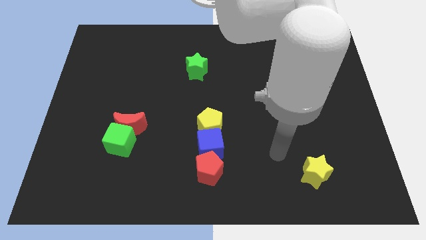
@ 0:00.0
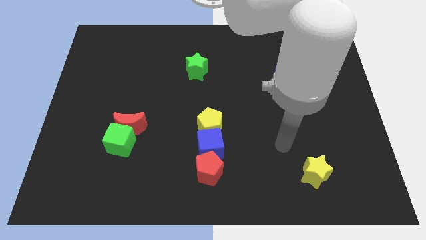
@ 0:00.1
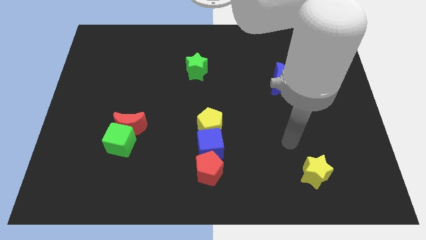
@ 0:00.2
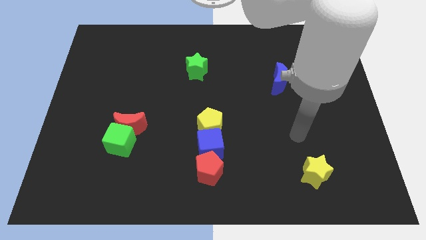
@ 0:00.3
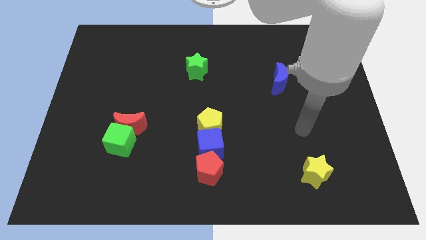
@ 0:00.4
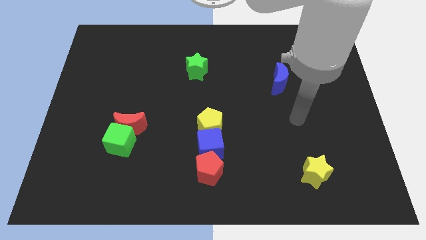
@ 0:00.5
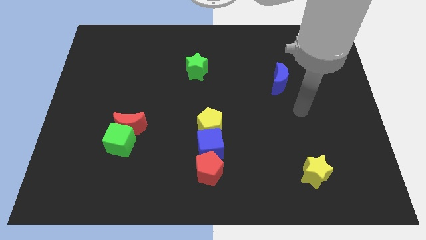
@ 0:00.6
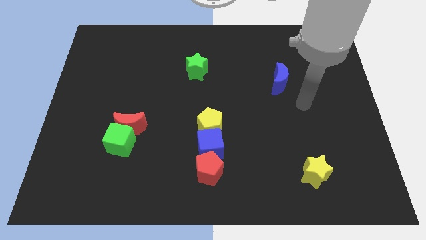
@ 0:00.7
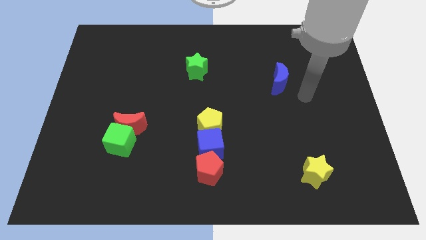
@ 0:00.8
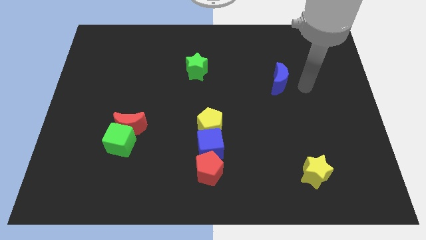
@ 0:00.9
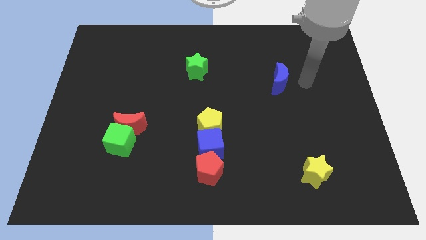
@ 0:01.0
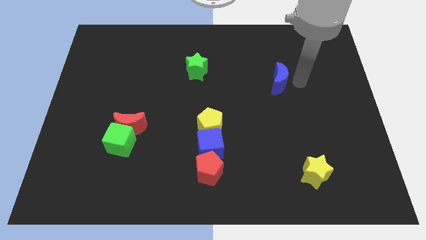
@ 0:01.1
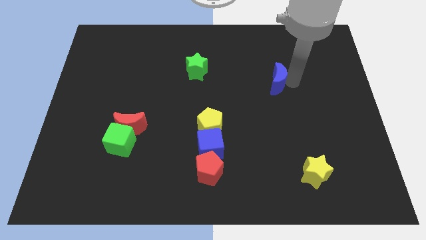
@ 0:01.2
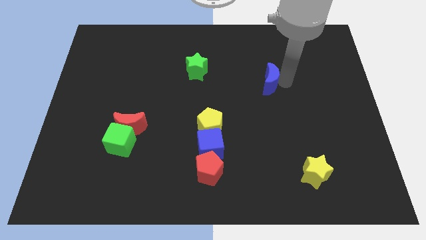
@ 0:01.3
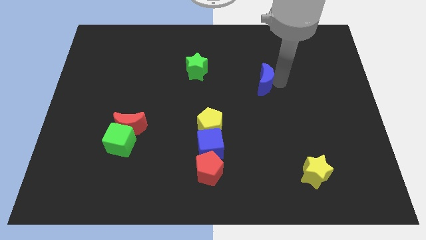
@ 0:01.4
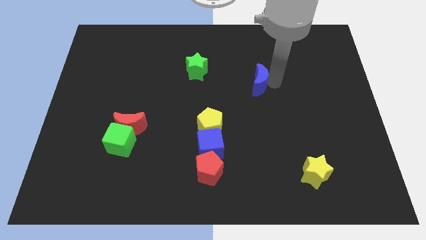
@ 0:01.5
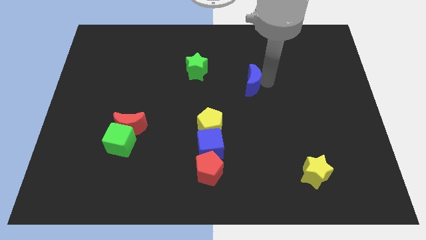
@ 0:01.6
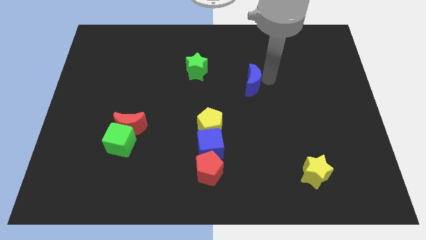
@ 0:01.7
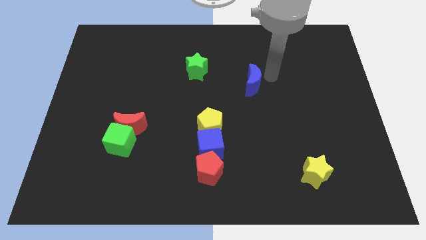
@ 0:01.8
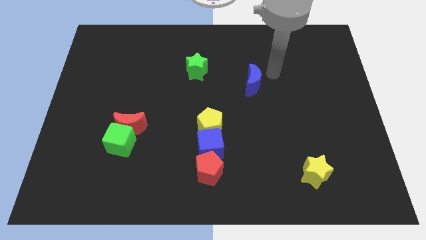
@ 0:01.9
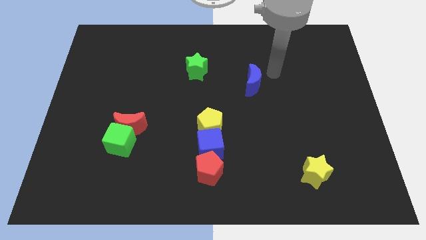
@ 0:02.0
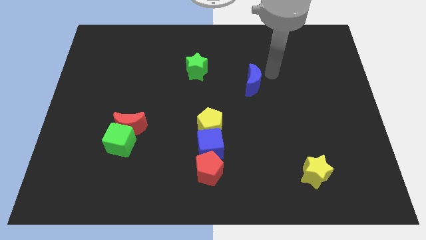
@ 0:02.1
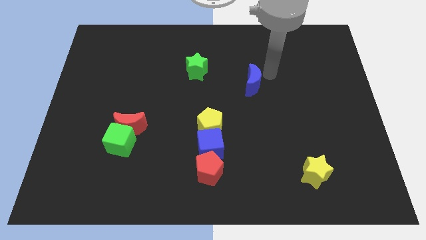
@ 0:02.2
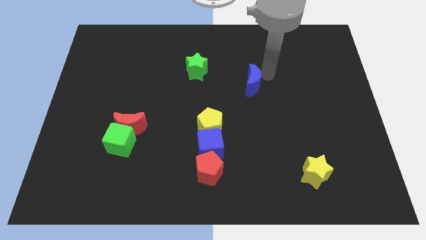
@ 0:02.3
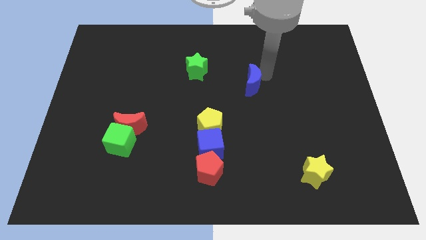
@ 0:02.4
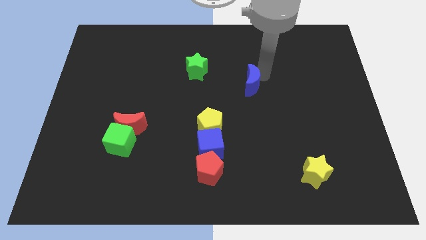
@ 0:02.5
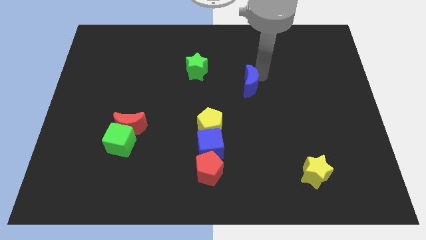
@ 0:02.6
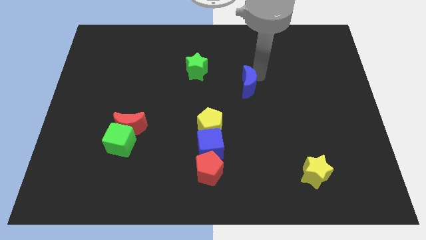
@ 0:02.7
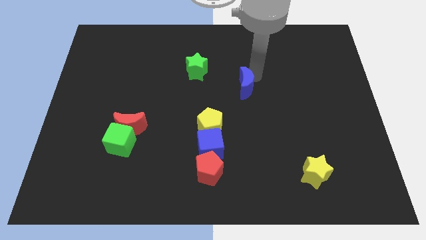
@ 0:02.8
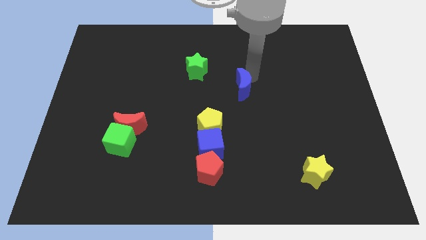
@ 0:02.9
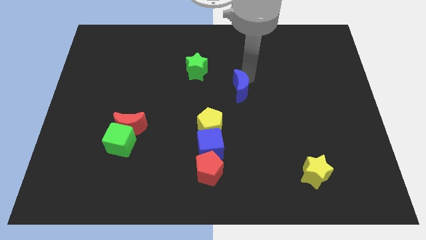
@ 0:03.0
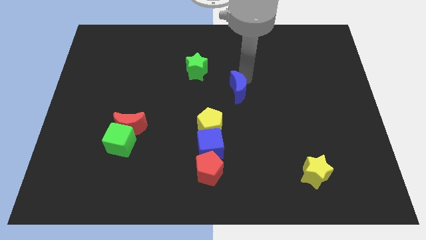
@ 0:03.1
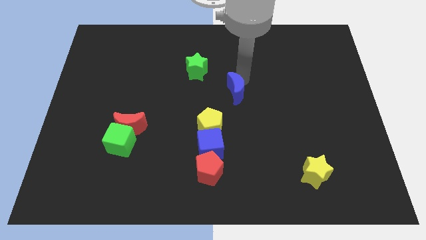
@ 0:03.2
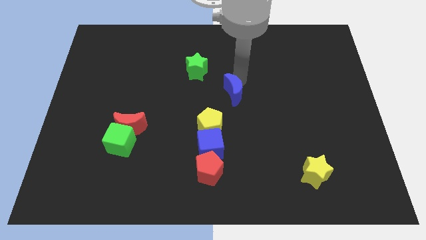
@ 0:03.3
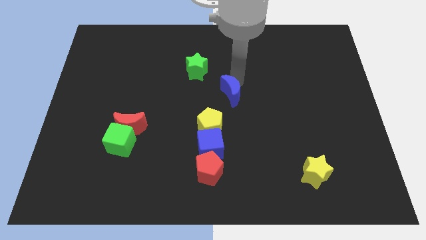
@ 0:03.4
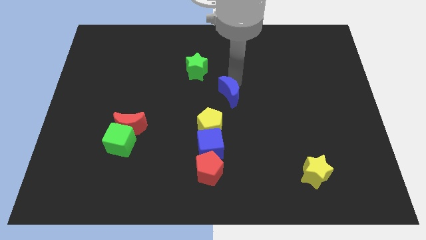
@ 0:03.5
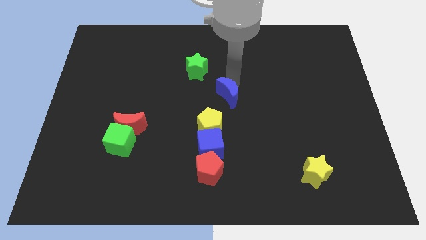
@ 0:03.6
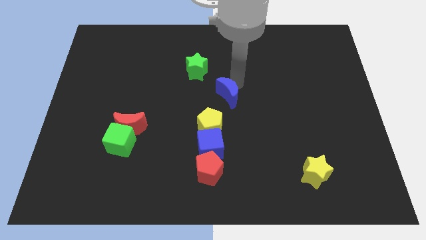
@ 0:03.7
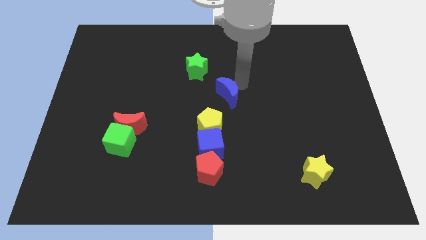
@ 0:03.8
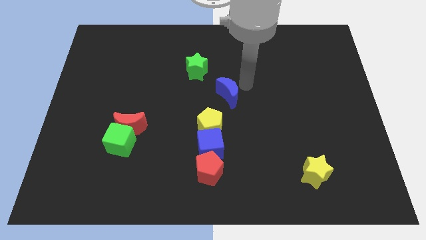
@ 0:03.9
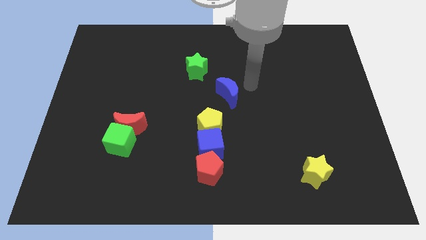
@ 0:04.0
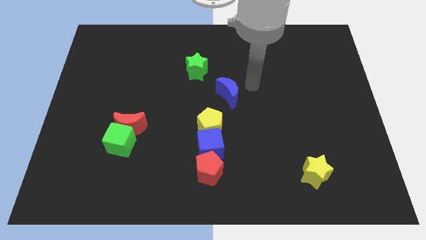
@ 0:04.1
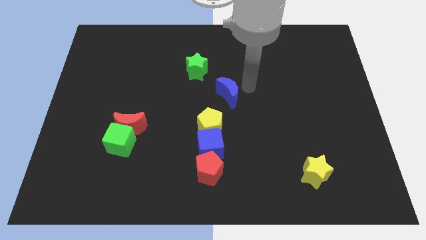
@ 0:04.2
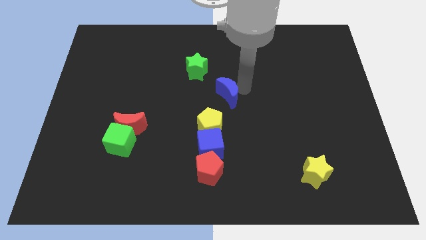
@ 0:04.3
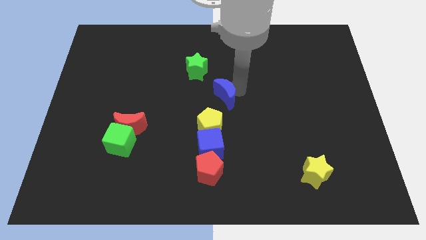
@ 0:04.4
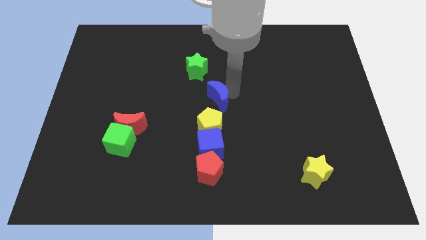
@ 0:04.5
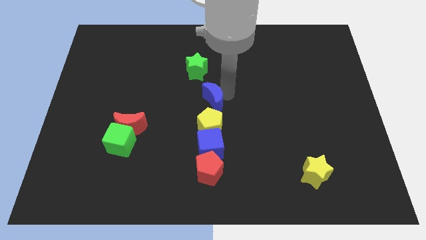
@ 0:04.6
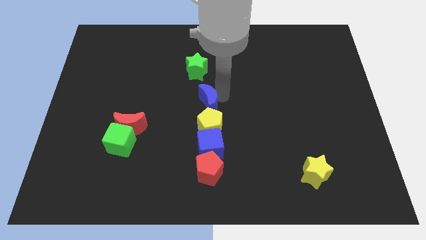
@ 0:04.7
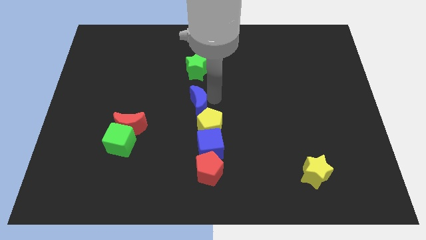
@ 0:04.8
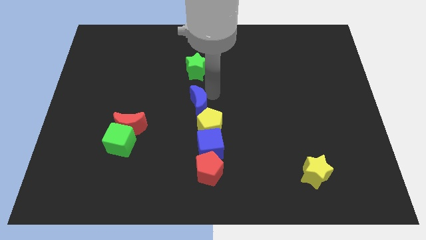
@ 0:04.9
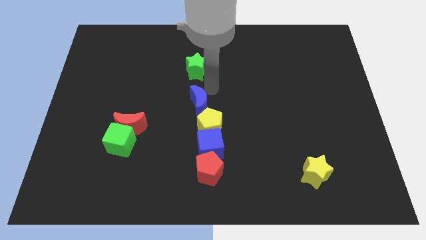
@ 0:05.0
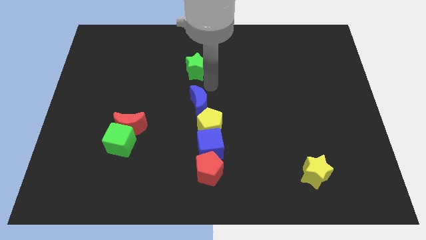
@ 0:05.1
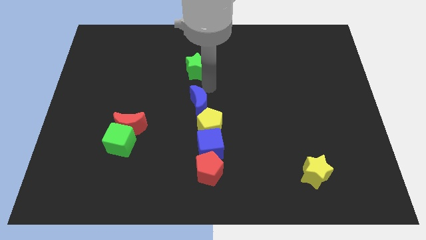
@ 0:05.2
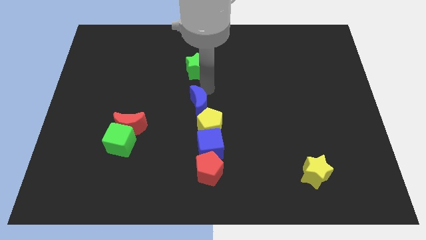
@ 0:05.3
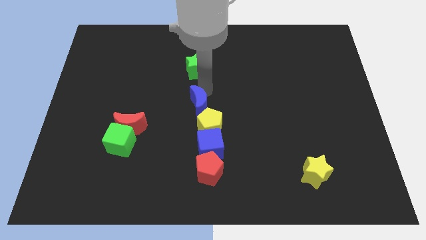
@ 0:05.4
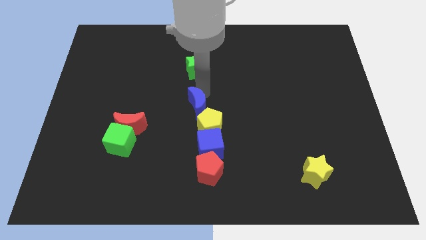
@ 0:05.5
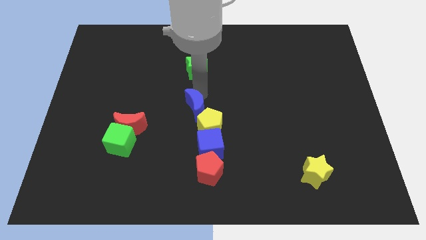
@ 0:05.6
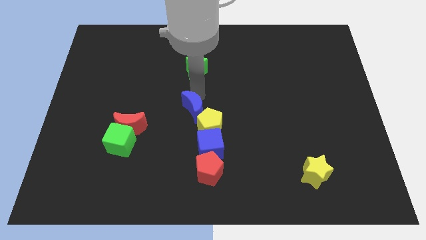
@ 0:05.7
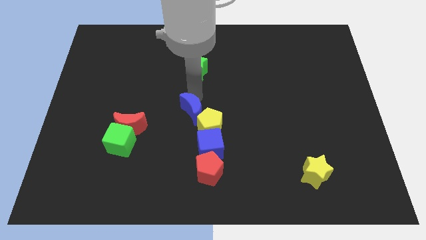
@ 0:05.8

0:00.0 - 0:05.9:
slide the blue moon to the top left of the blue cube

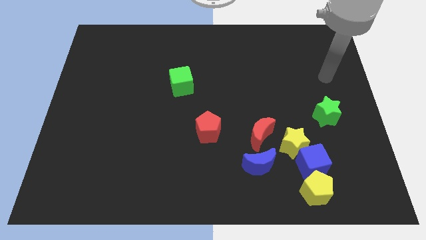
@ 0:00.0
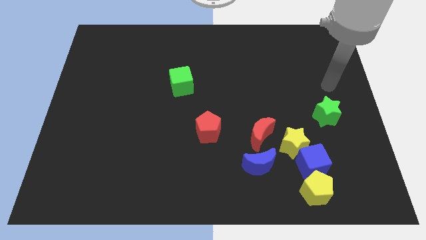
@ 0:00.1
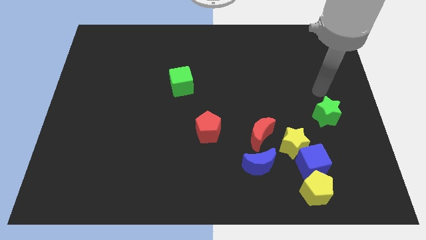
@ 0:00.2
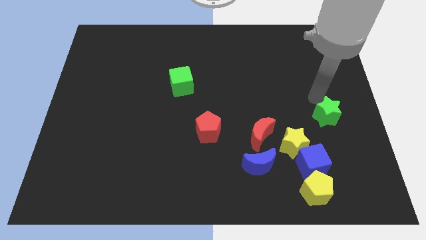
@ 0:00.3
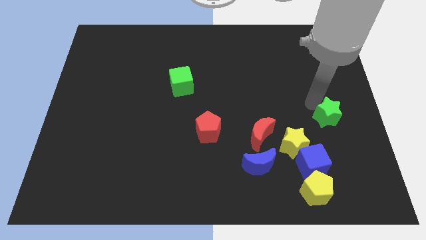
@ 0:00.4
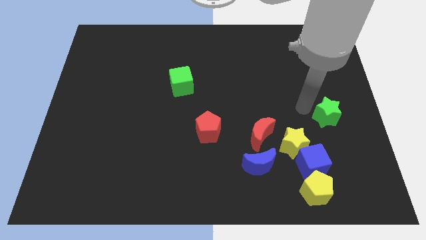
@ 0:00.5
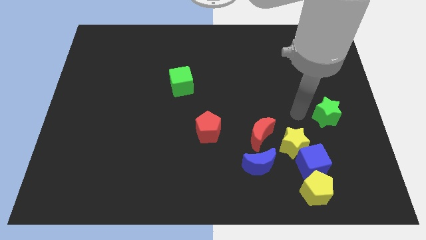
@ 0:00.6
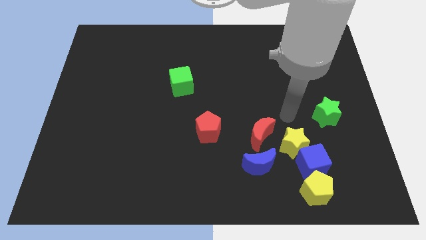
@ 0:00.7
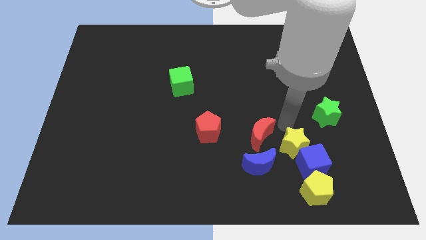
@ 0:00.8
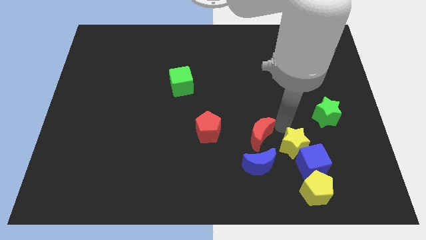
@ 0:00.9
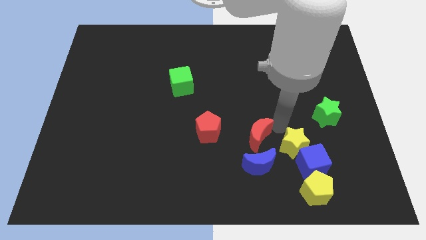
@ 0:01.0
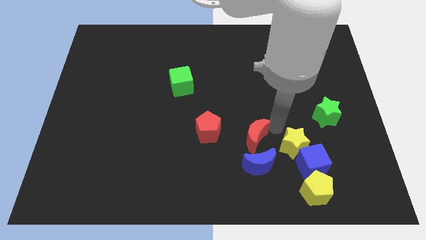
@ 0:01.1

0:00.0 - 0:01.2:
put the red moon to the top left of the blue moon
